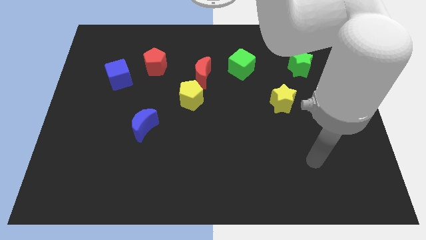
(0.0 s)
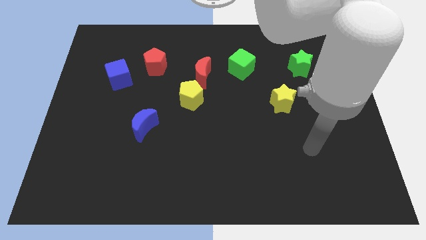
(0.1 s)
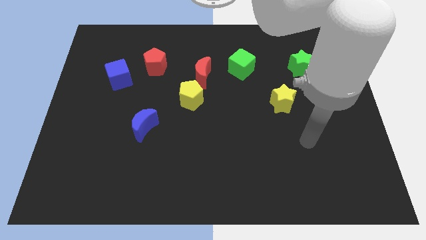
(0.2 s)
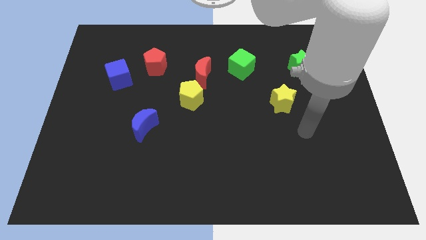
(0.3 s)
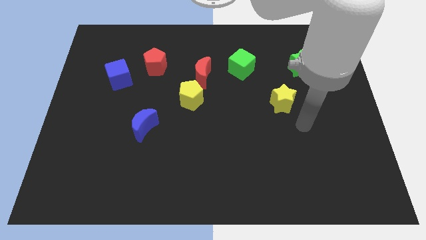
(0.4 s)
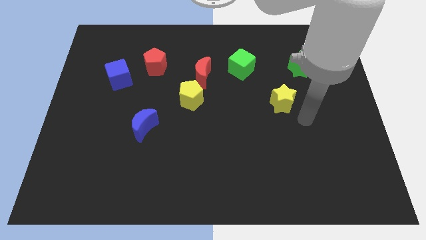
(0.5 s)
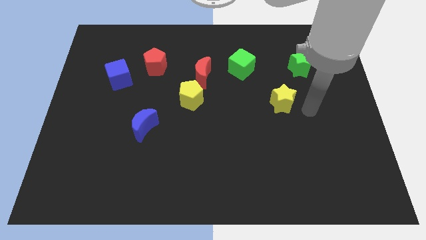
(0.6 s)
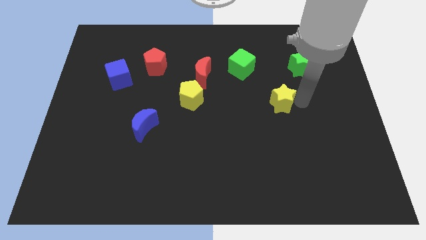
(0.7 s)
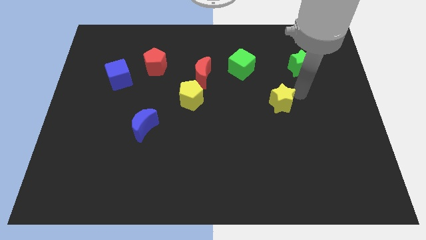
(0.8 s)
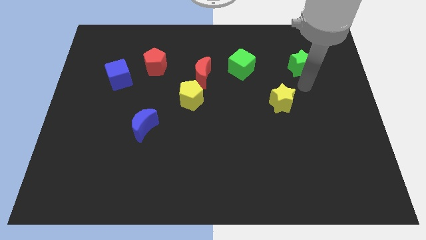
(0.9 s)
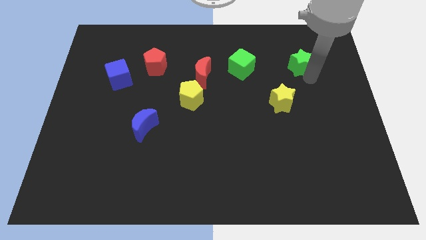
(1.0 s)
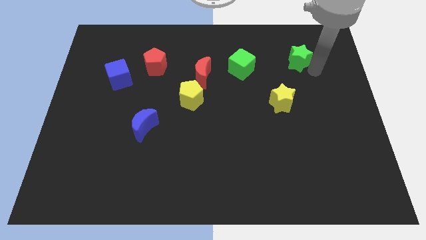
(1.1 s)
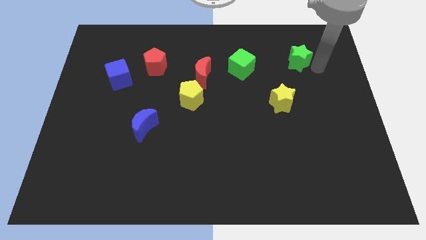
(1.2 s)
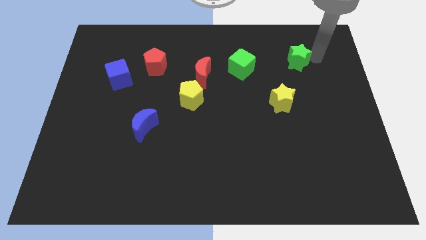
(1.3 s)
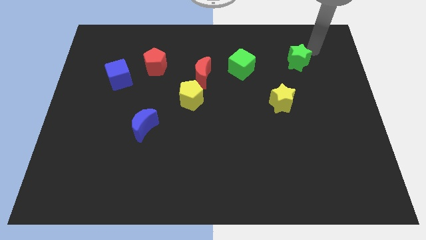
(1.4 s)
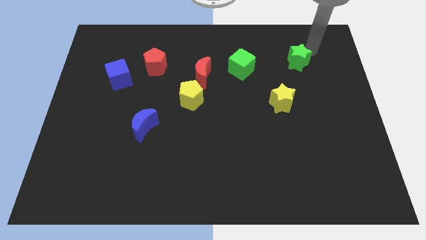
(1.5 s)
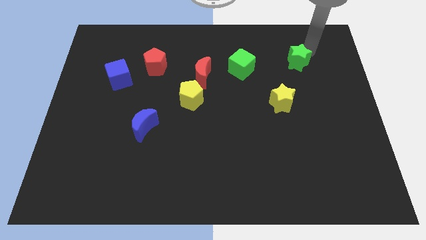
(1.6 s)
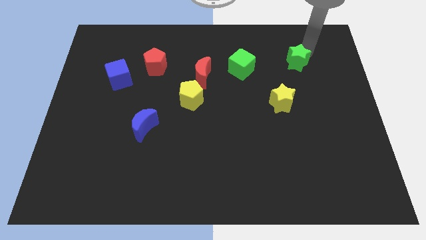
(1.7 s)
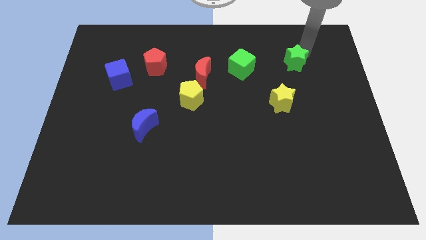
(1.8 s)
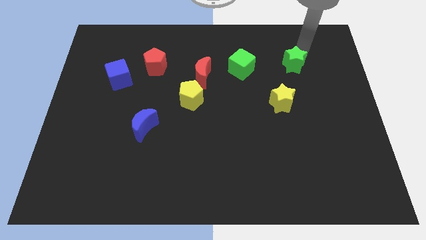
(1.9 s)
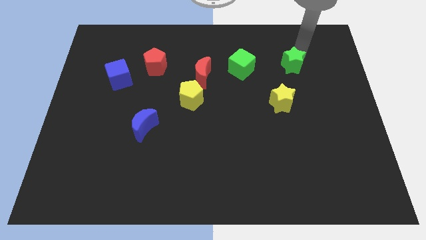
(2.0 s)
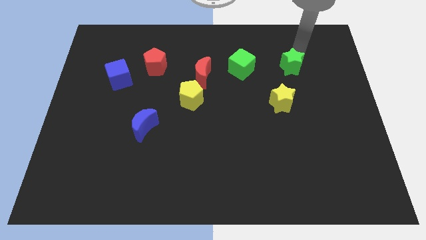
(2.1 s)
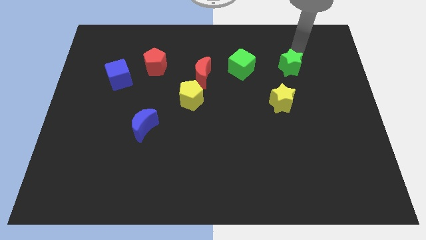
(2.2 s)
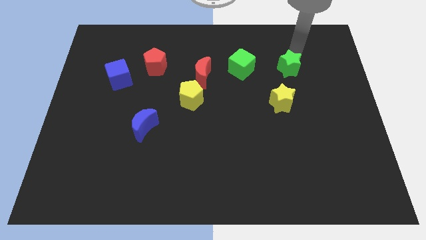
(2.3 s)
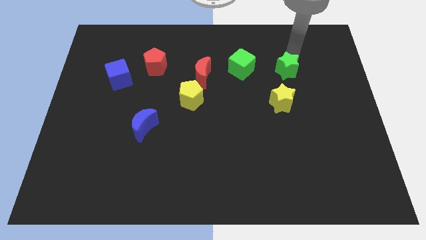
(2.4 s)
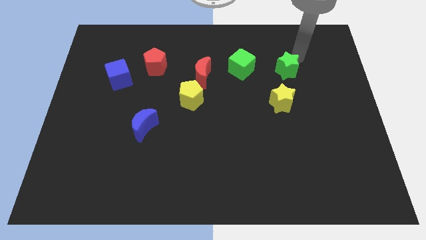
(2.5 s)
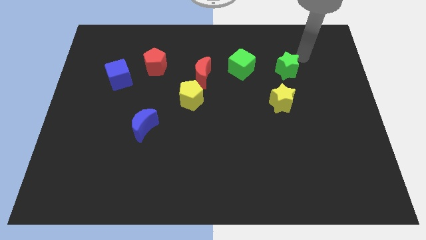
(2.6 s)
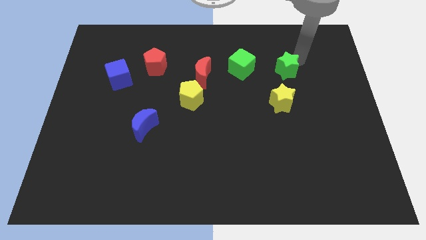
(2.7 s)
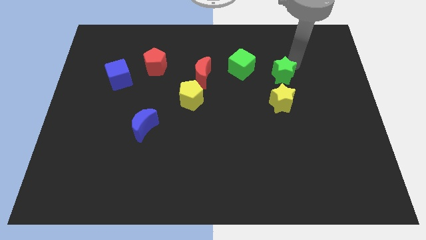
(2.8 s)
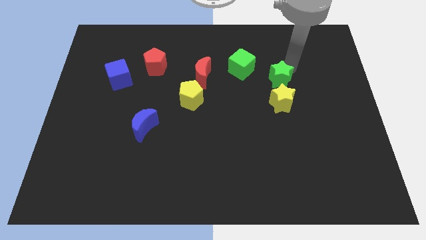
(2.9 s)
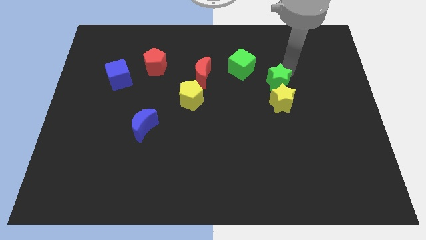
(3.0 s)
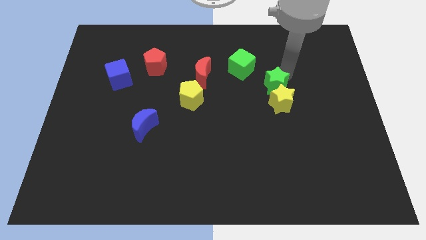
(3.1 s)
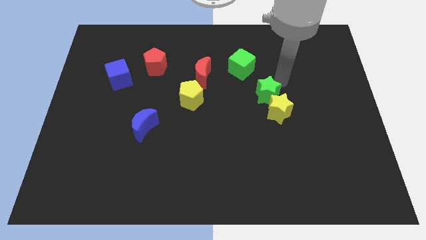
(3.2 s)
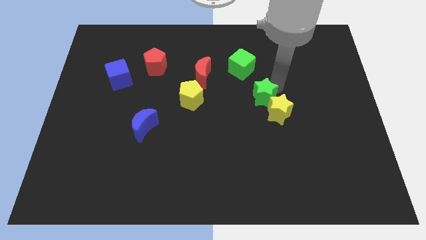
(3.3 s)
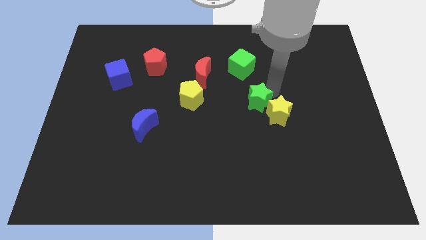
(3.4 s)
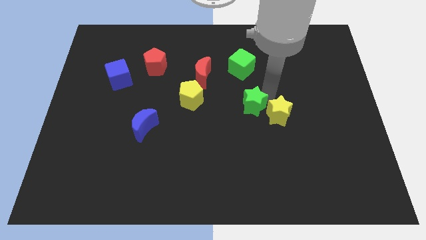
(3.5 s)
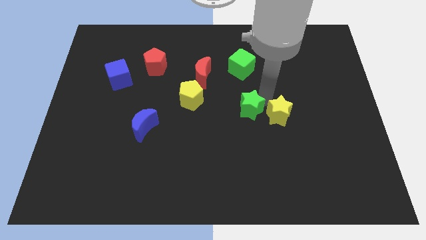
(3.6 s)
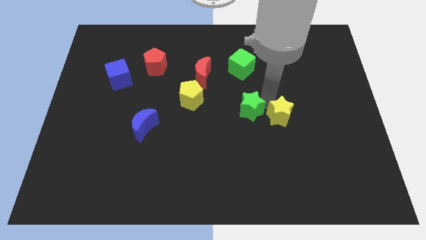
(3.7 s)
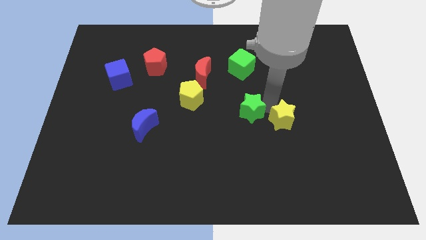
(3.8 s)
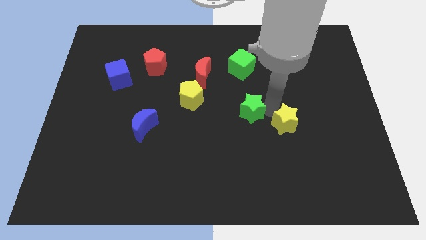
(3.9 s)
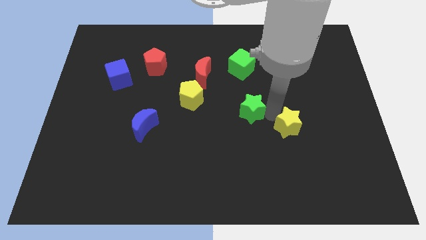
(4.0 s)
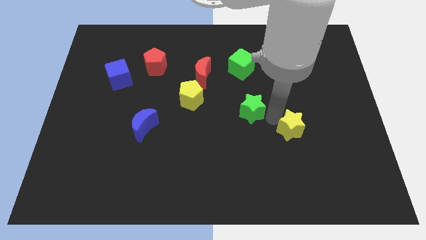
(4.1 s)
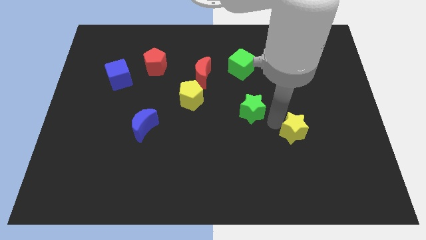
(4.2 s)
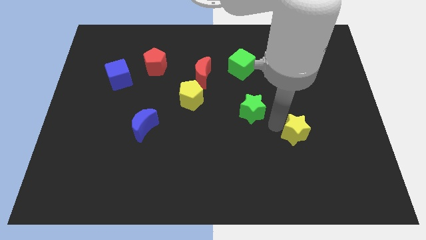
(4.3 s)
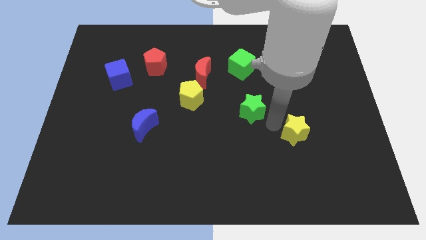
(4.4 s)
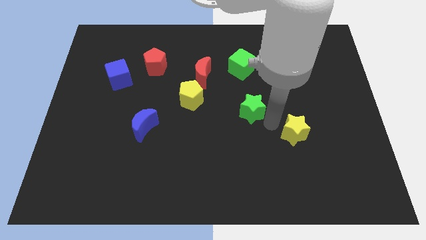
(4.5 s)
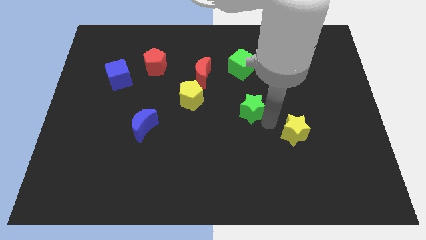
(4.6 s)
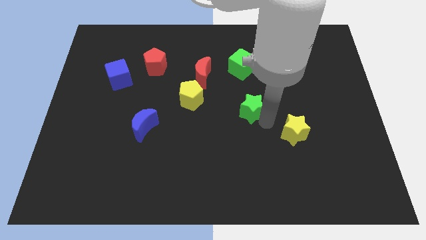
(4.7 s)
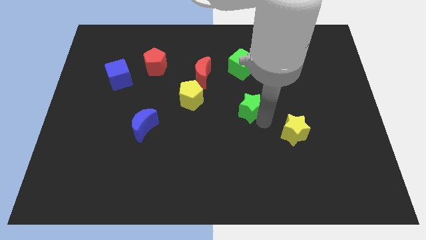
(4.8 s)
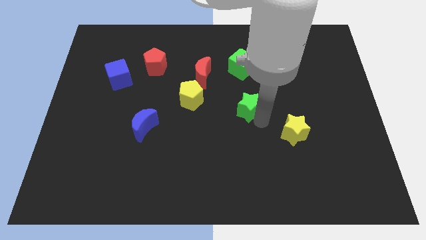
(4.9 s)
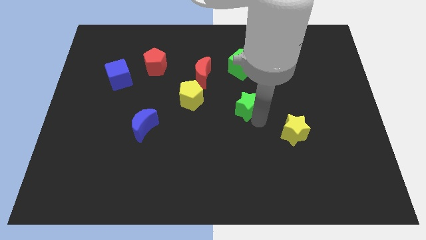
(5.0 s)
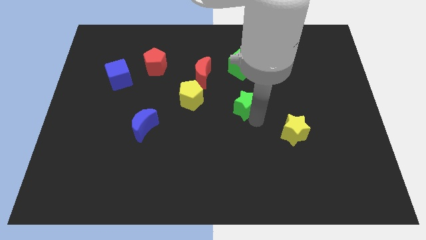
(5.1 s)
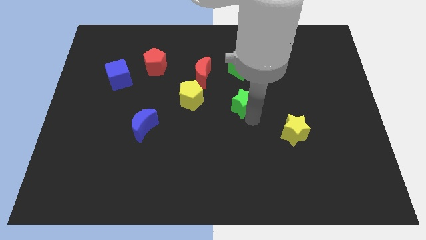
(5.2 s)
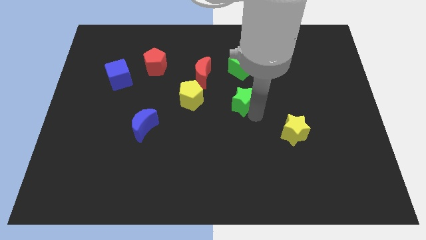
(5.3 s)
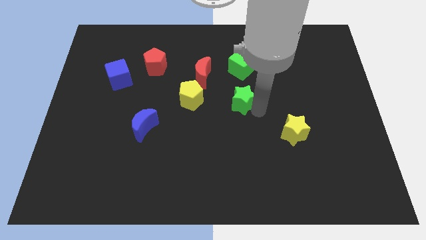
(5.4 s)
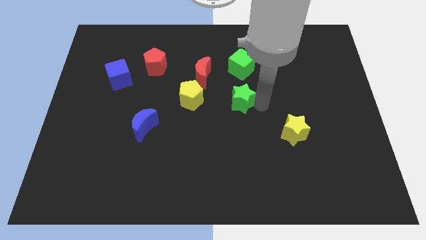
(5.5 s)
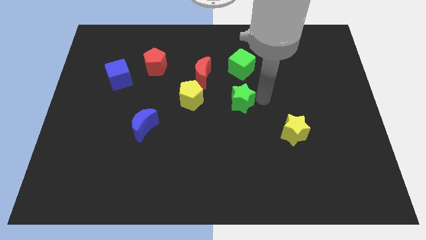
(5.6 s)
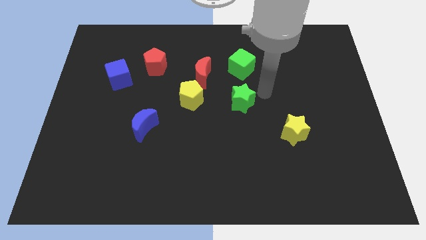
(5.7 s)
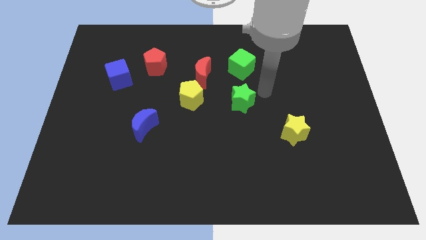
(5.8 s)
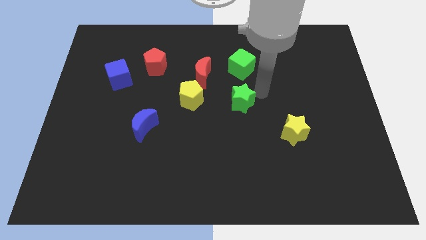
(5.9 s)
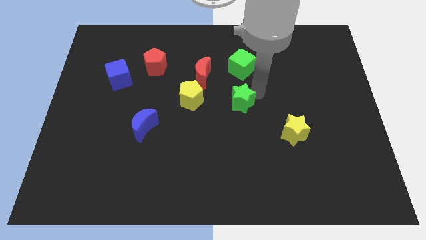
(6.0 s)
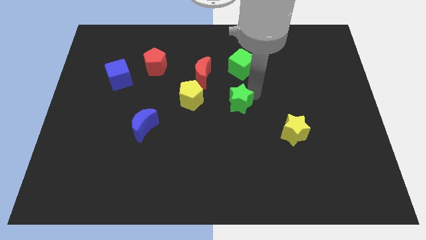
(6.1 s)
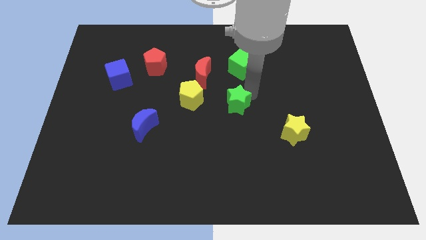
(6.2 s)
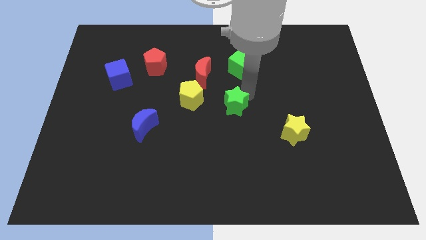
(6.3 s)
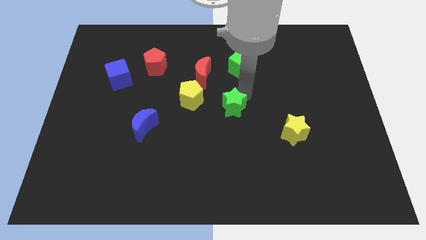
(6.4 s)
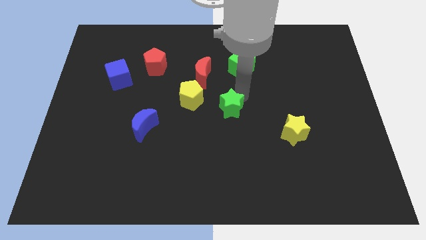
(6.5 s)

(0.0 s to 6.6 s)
slide the green star to the bottom right of the yellow pentagon

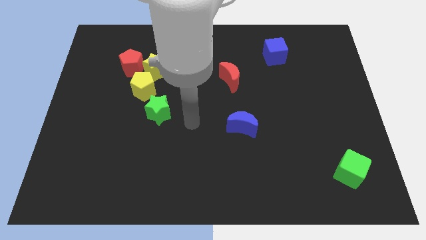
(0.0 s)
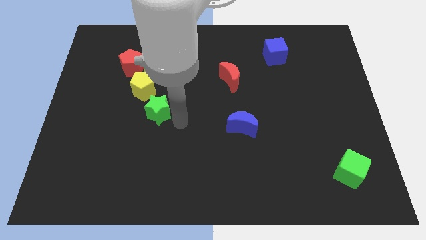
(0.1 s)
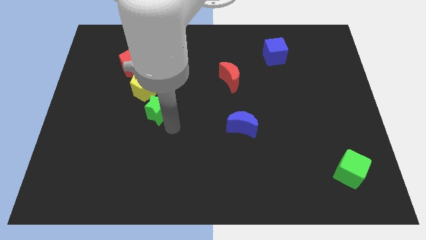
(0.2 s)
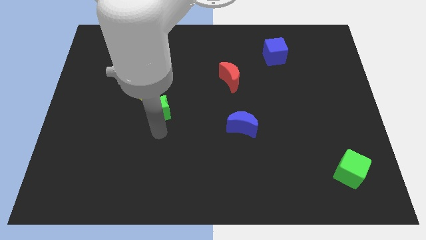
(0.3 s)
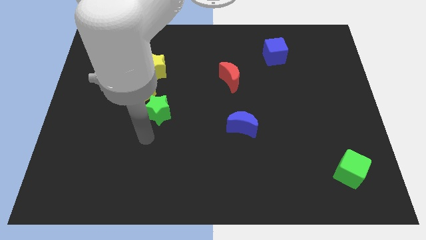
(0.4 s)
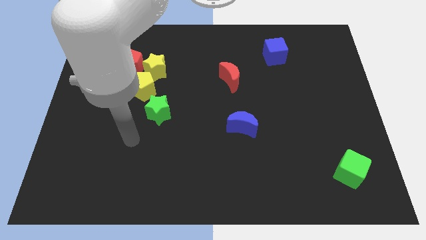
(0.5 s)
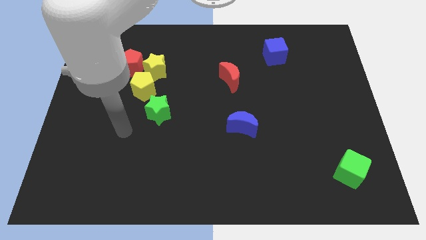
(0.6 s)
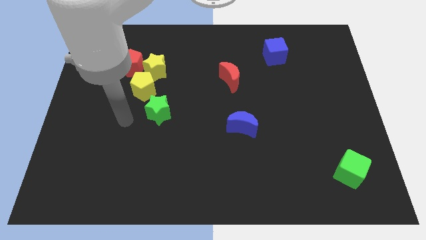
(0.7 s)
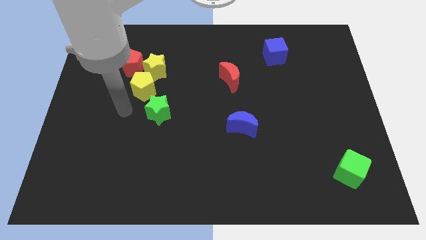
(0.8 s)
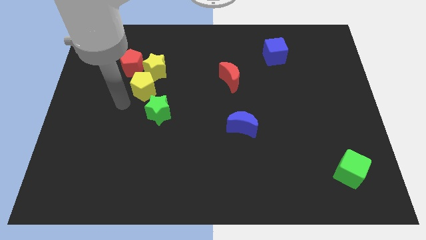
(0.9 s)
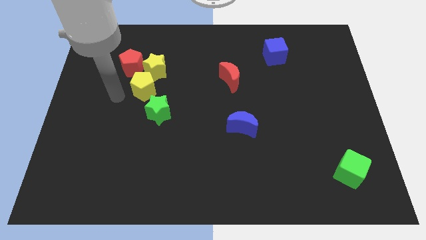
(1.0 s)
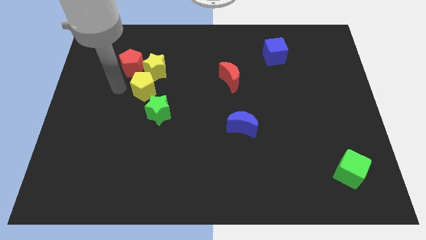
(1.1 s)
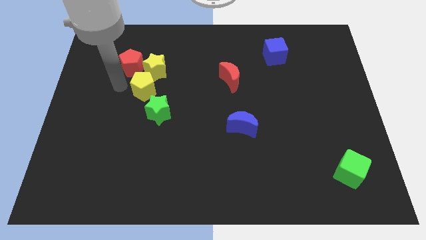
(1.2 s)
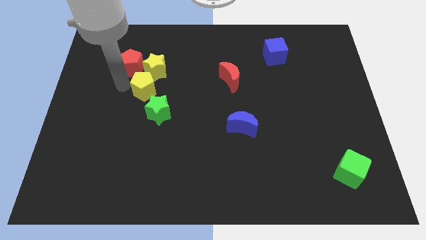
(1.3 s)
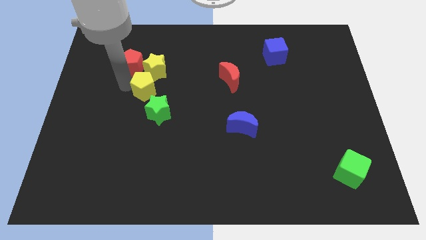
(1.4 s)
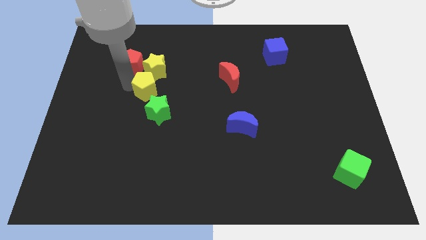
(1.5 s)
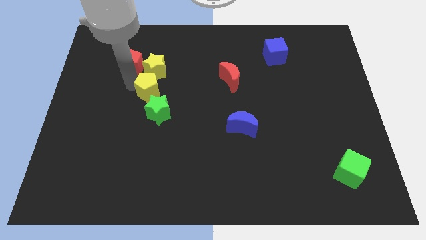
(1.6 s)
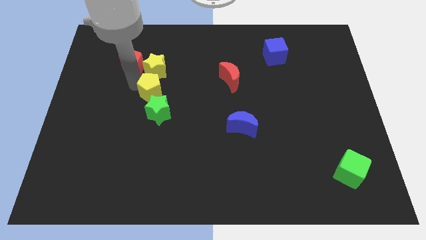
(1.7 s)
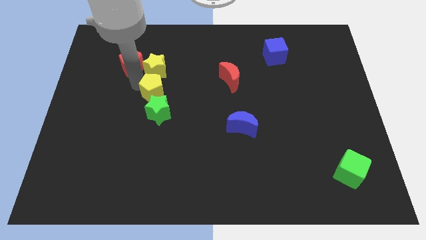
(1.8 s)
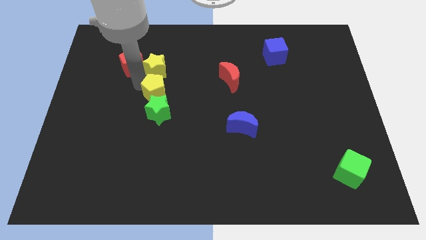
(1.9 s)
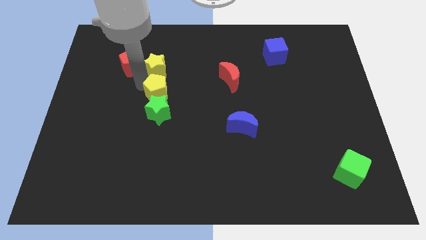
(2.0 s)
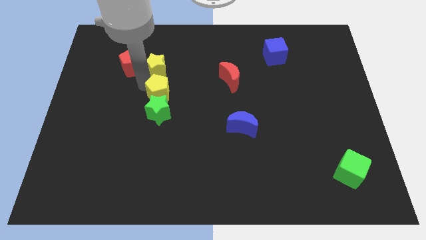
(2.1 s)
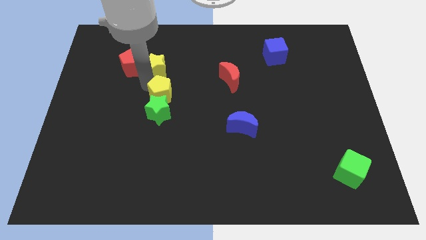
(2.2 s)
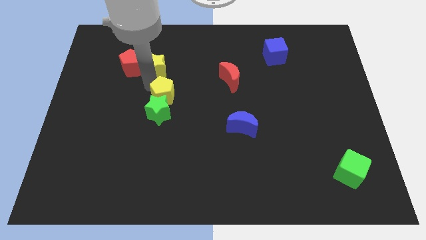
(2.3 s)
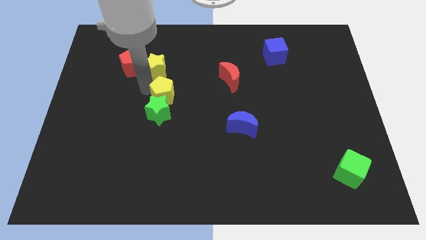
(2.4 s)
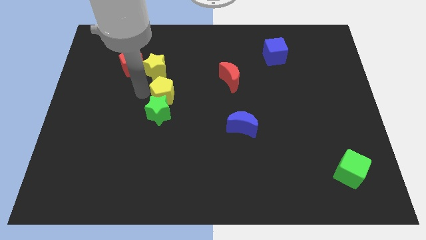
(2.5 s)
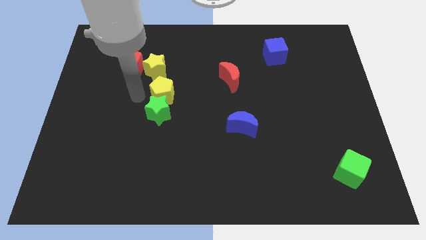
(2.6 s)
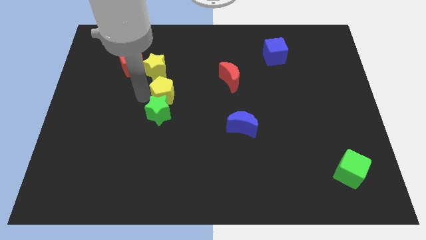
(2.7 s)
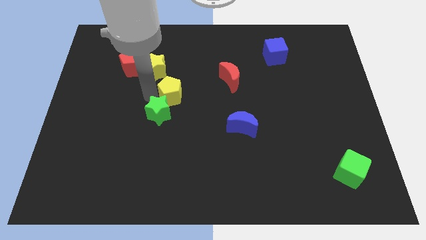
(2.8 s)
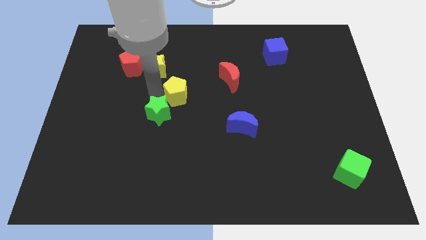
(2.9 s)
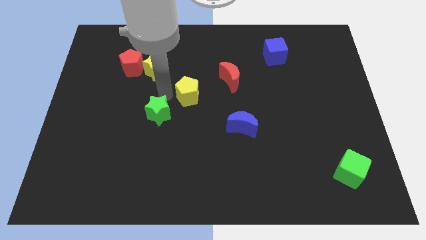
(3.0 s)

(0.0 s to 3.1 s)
push the yellow pentagon to the bottom left side of the red moon
